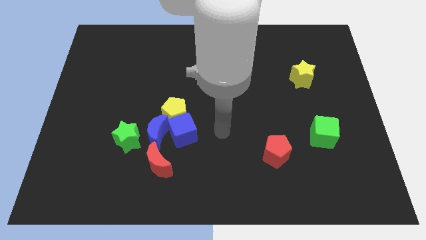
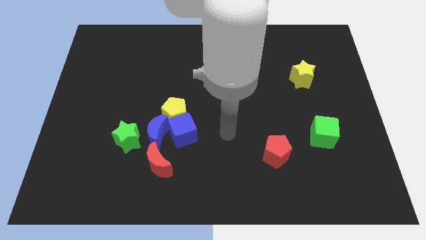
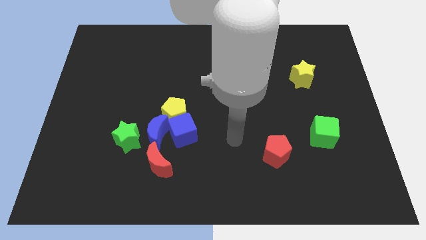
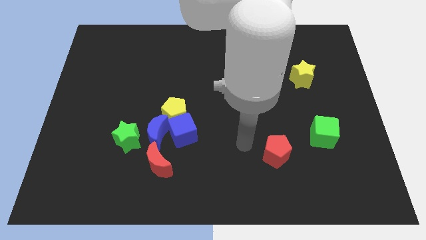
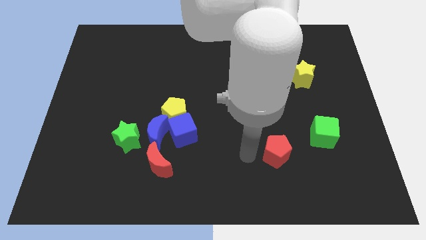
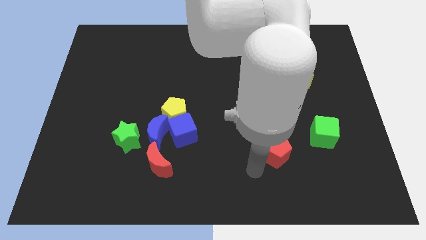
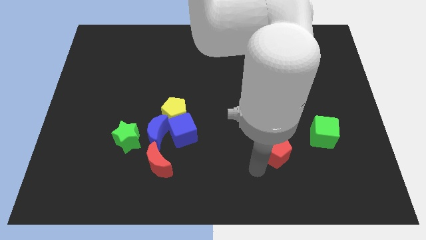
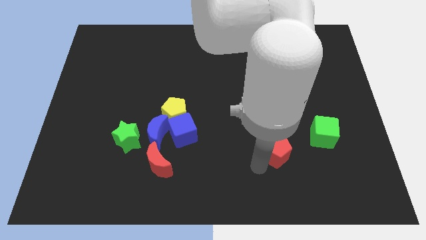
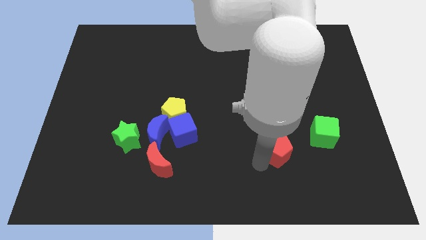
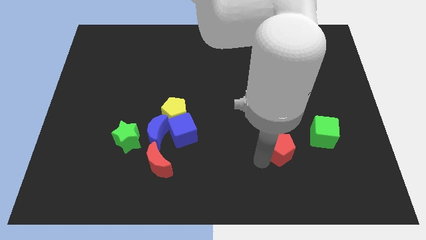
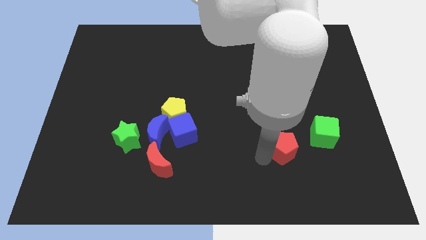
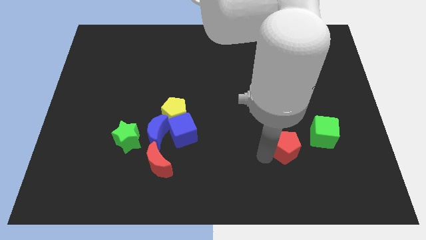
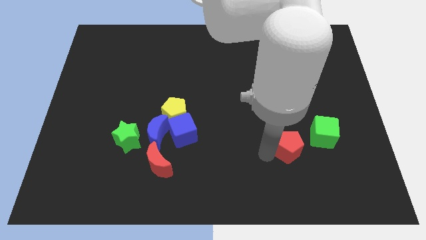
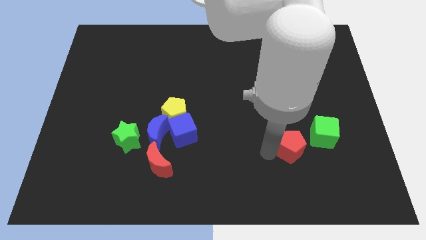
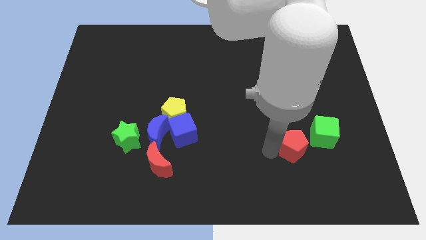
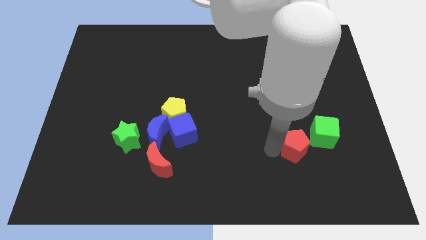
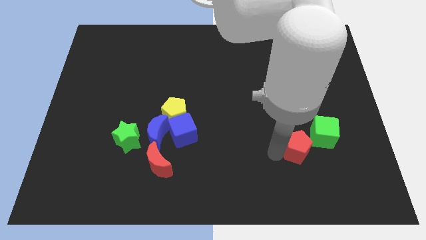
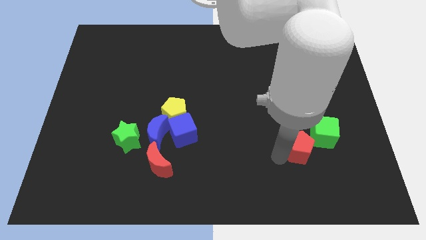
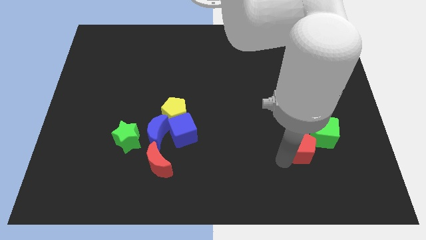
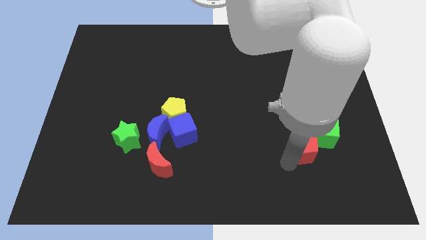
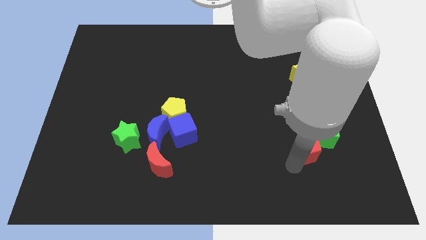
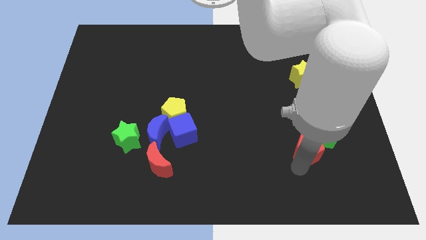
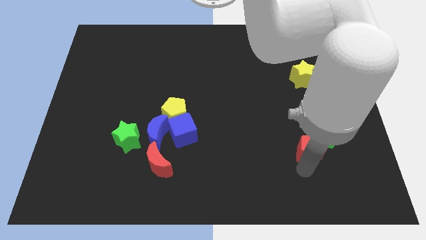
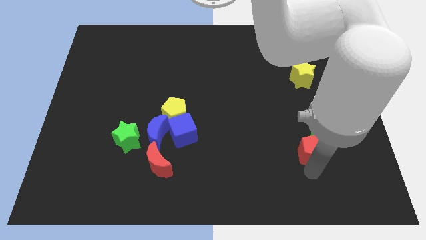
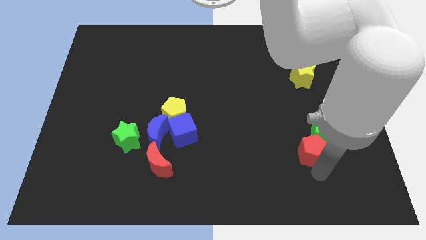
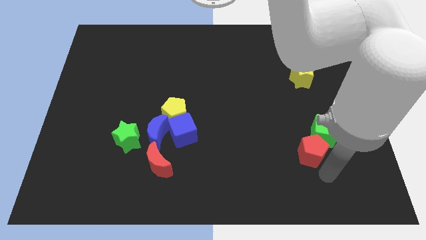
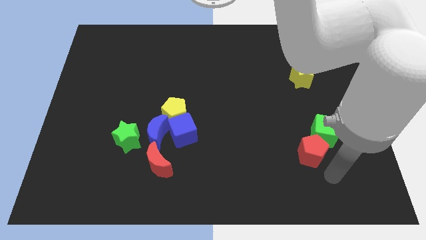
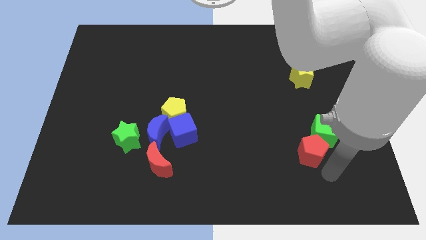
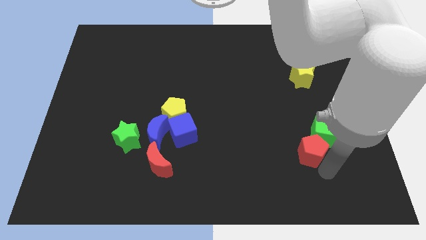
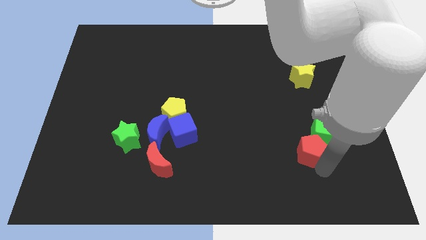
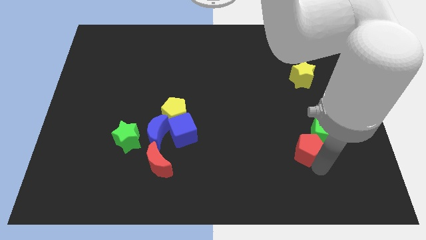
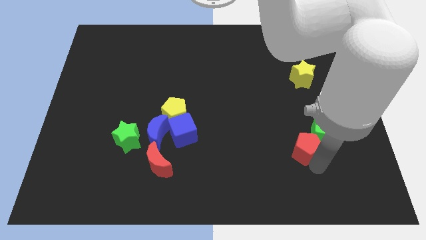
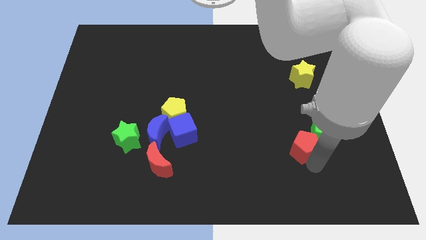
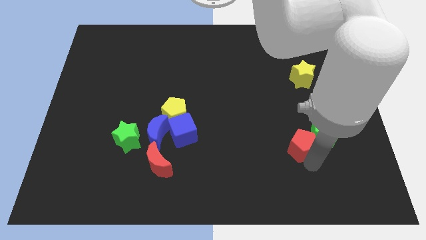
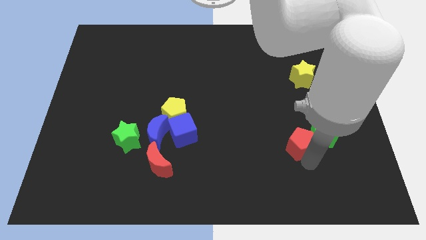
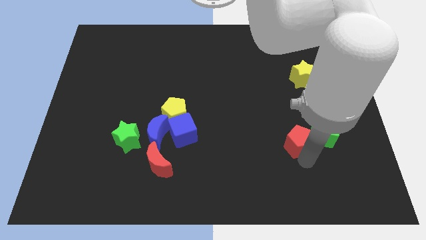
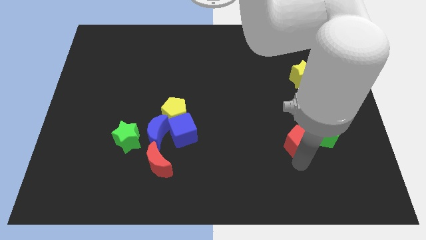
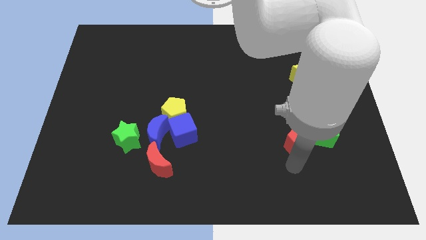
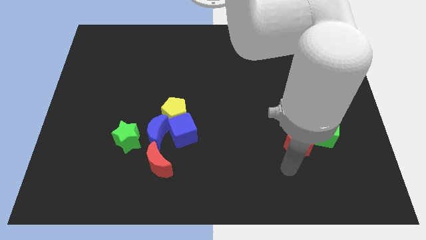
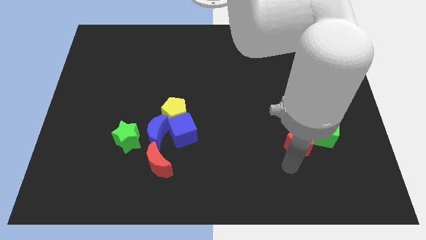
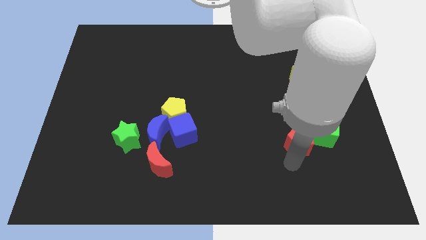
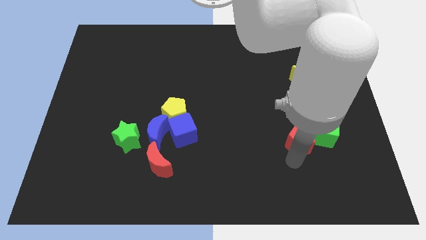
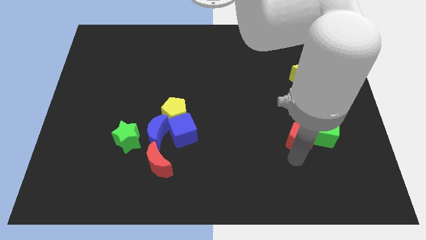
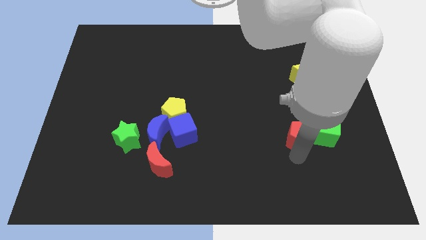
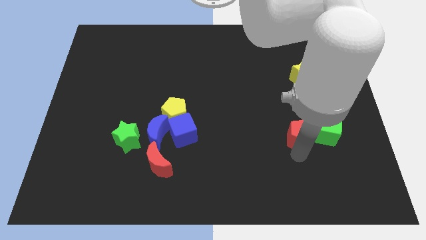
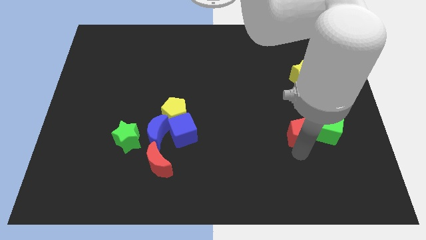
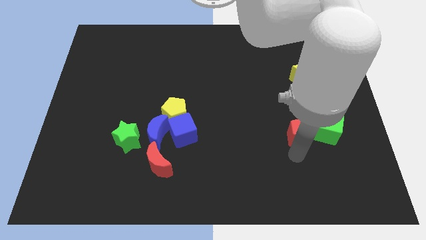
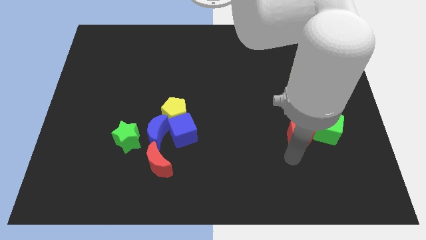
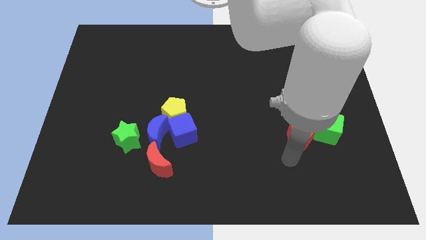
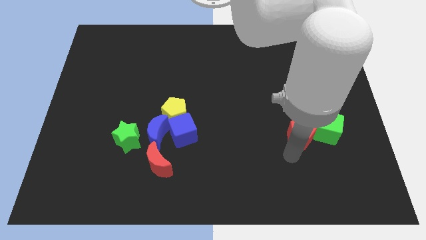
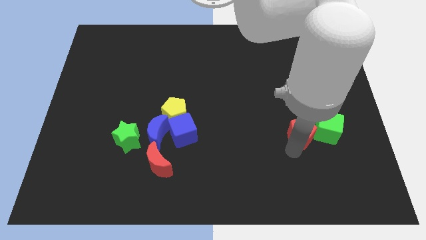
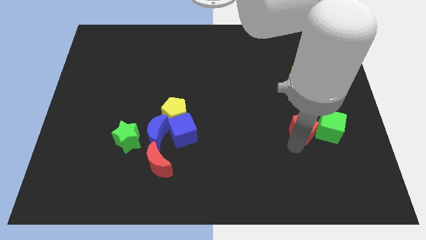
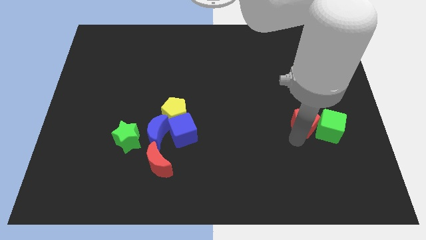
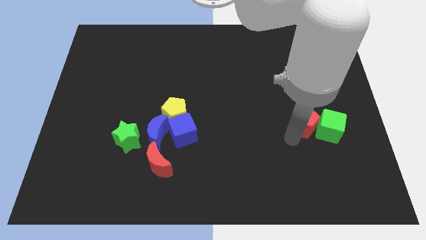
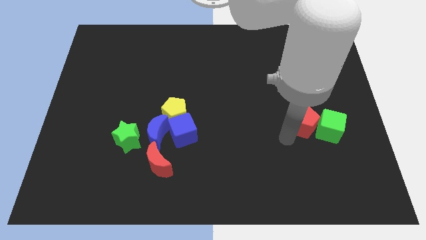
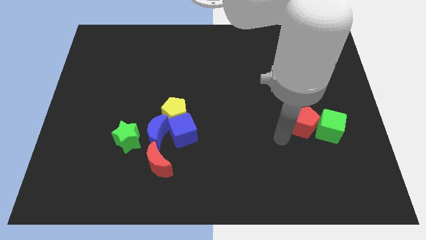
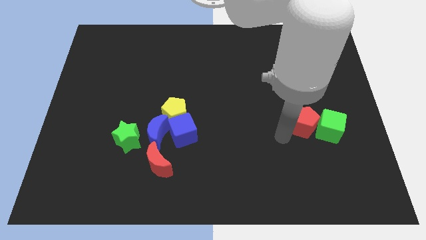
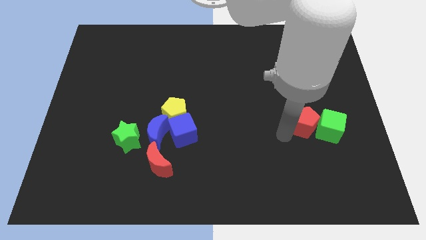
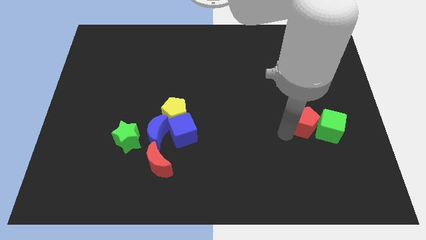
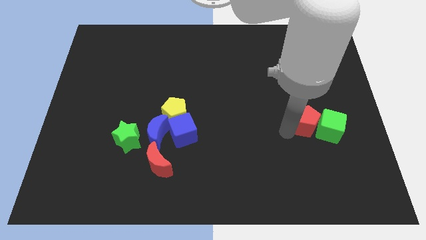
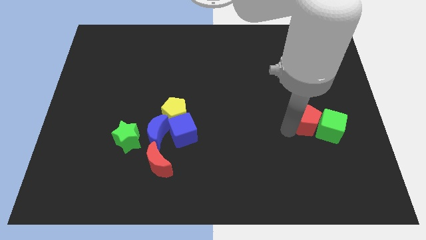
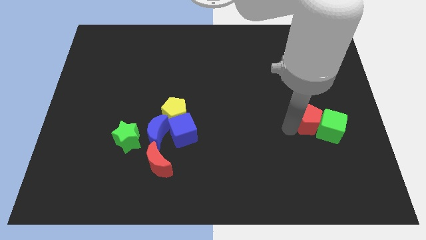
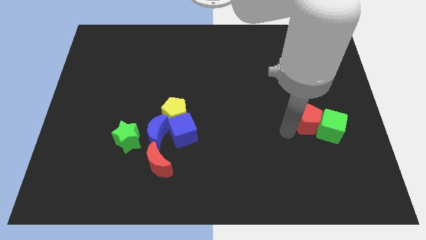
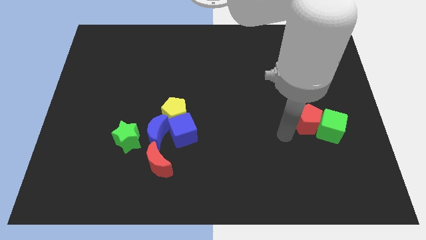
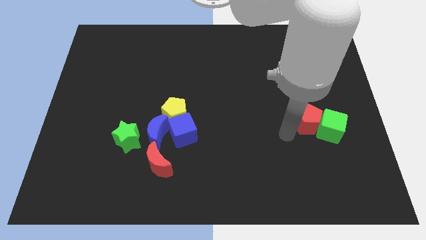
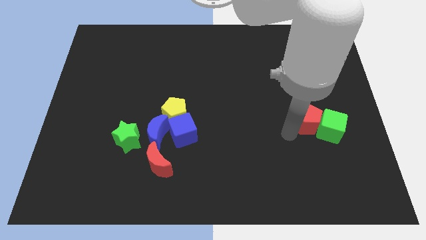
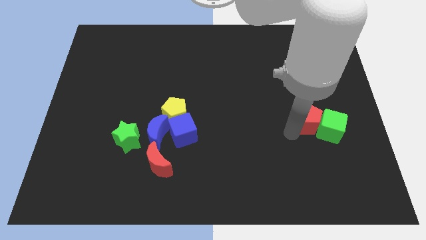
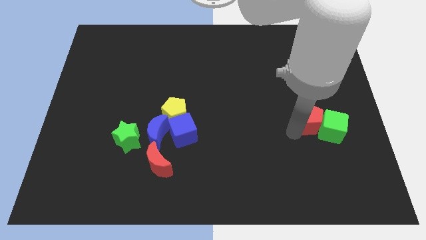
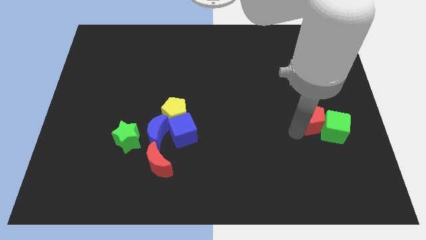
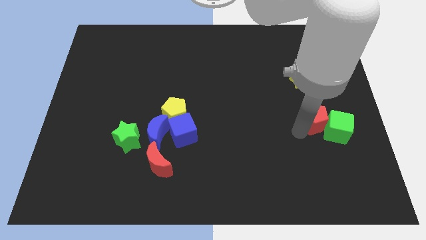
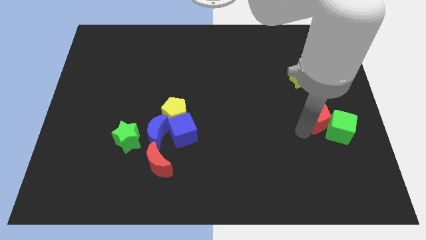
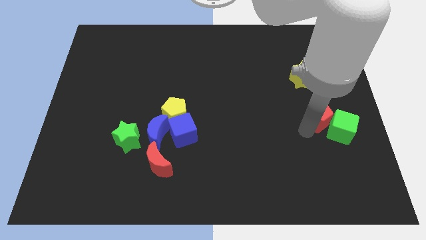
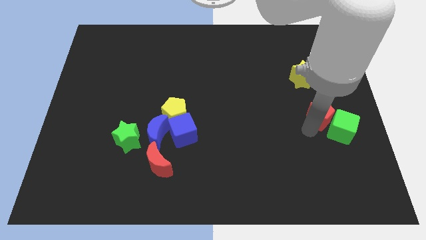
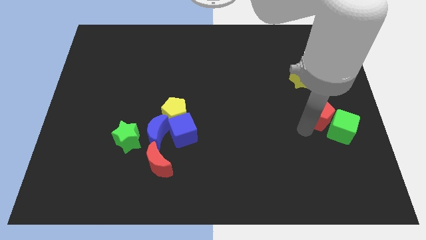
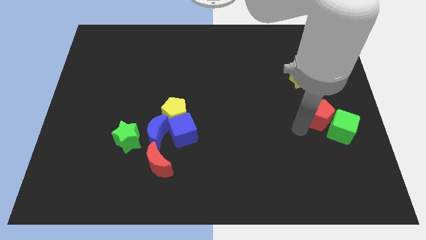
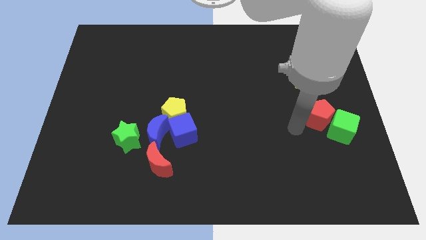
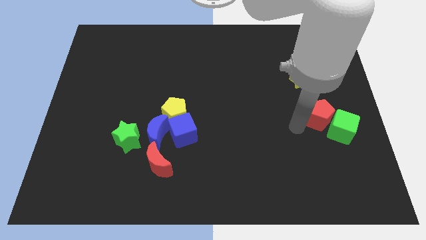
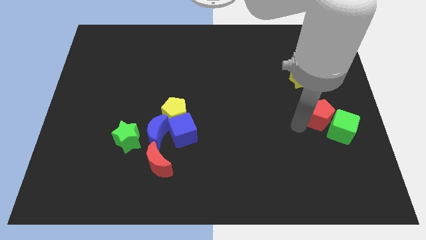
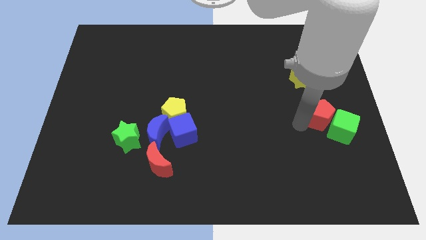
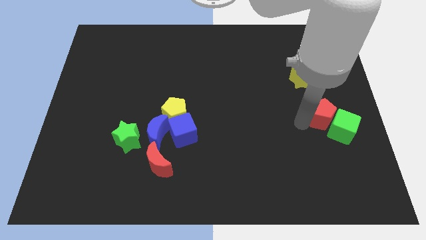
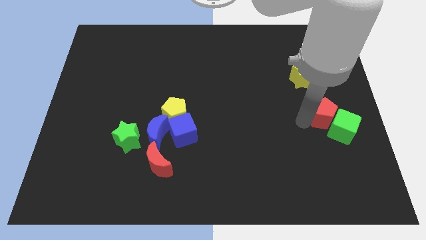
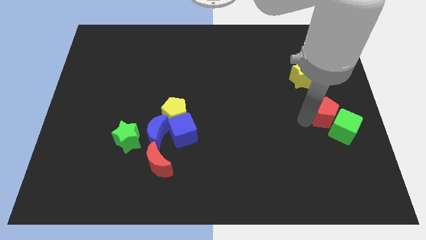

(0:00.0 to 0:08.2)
push the red pentagon to the right side of the board
